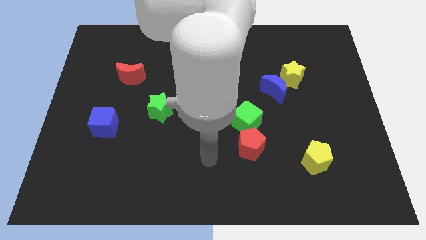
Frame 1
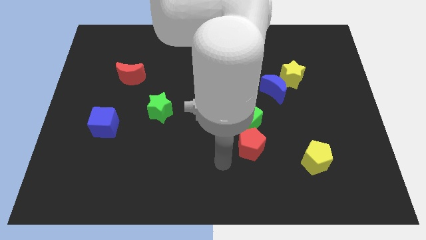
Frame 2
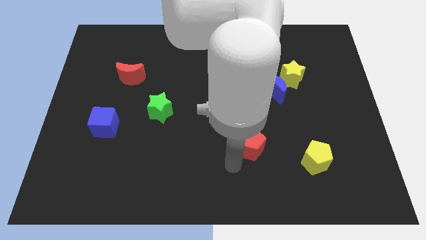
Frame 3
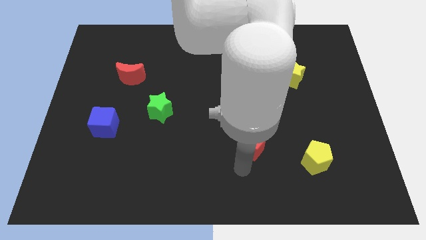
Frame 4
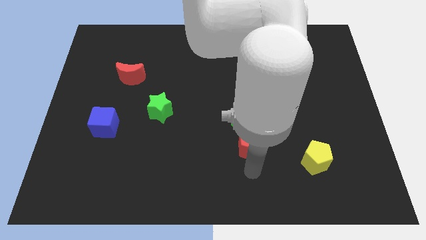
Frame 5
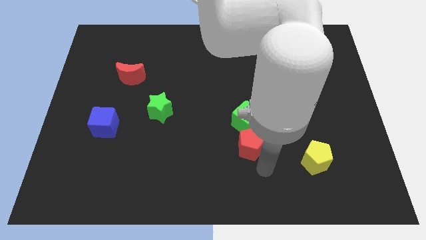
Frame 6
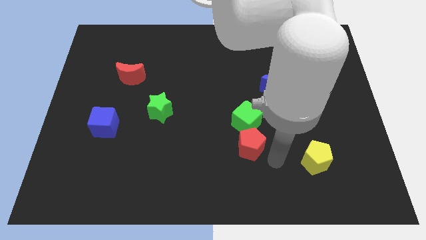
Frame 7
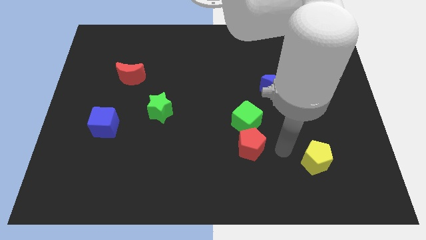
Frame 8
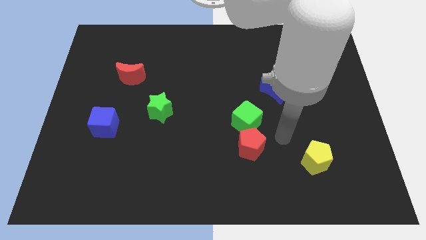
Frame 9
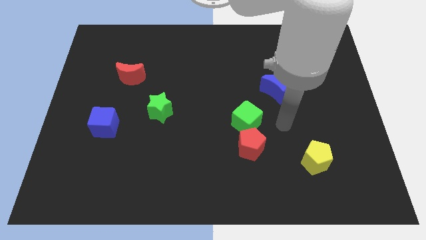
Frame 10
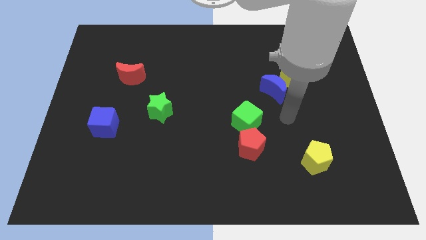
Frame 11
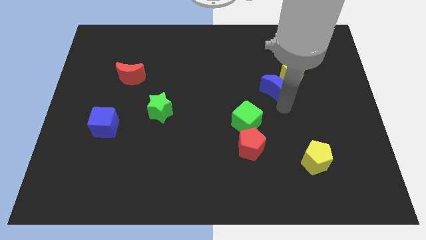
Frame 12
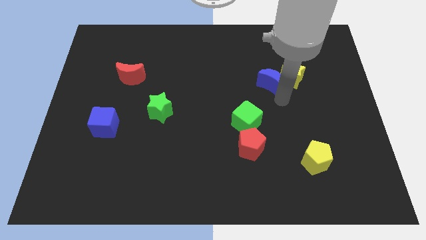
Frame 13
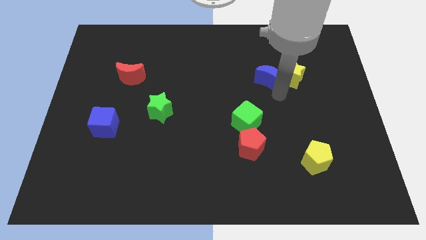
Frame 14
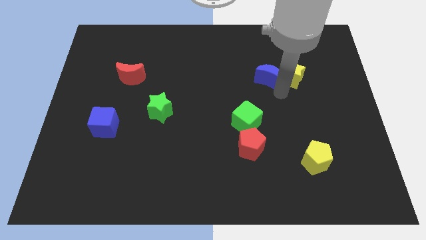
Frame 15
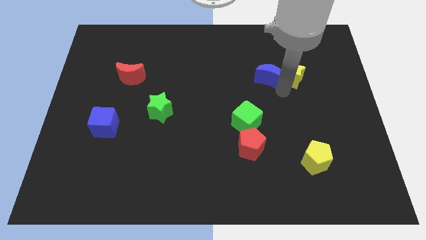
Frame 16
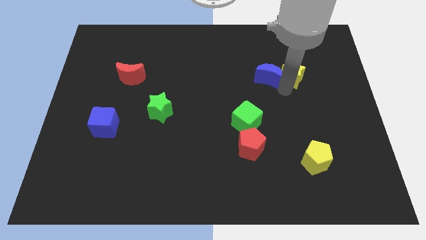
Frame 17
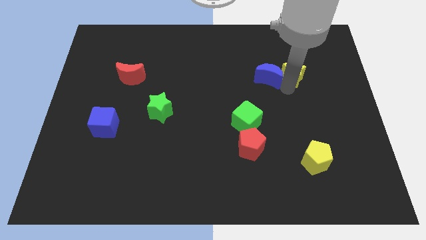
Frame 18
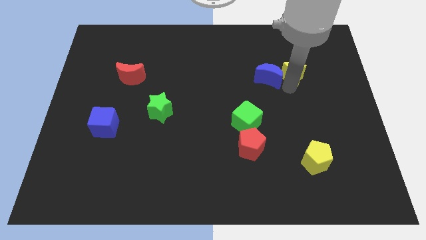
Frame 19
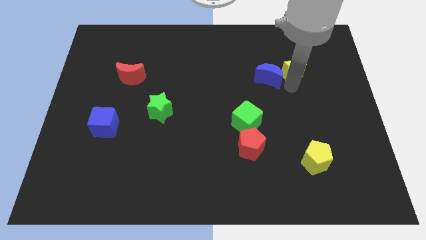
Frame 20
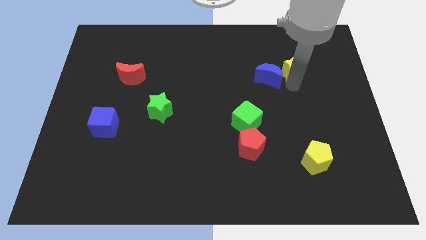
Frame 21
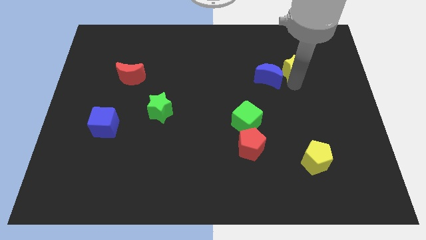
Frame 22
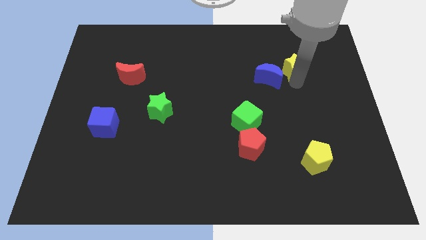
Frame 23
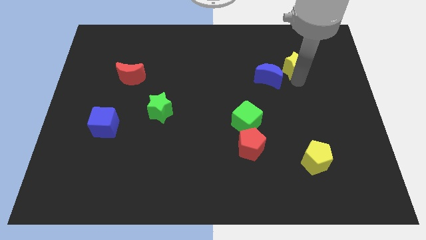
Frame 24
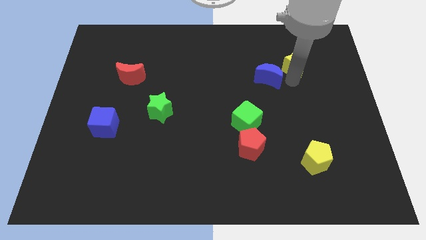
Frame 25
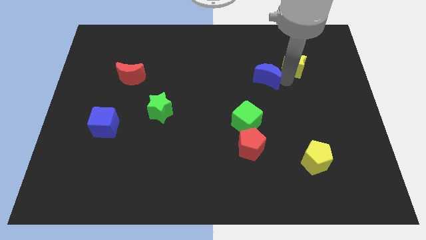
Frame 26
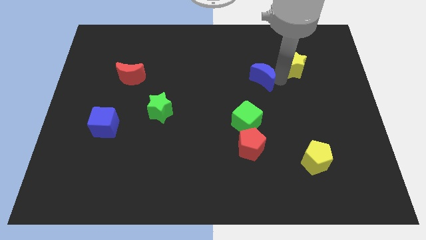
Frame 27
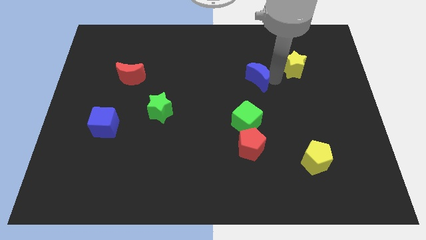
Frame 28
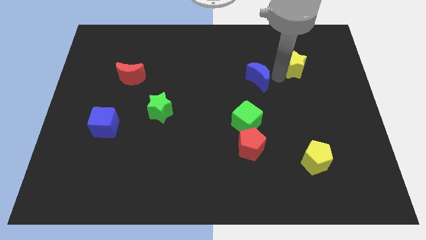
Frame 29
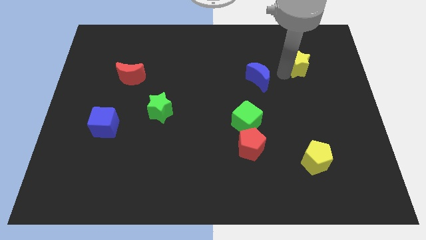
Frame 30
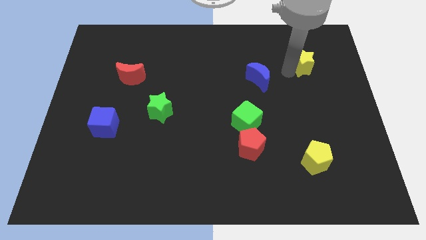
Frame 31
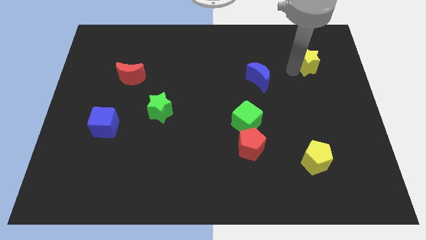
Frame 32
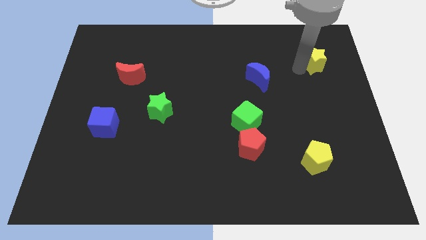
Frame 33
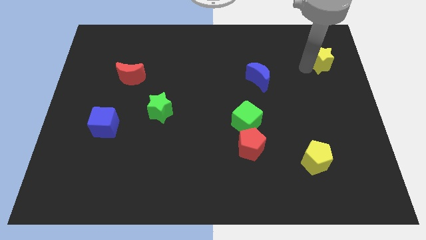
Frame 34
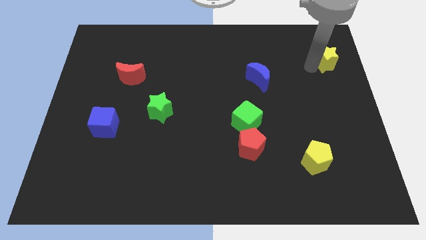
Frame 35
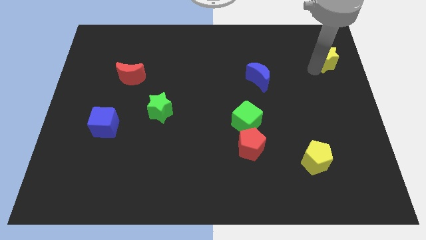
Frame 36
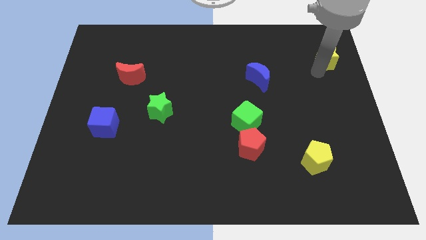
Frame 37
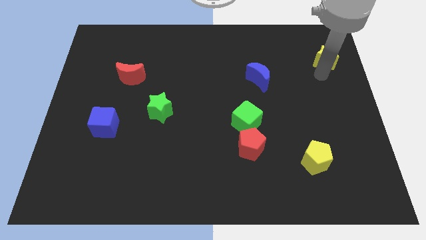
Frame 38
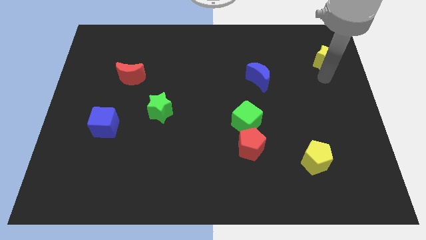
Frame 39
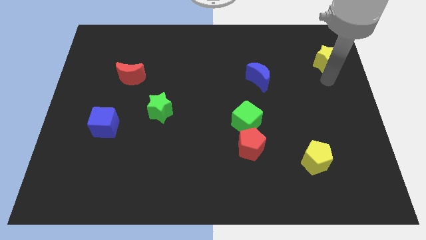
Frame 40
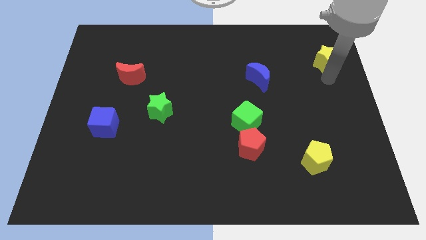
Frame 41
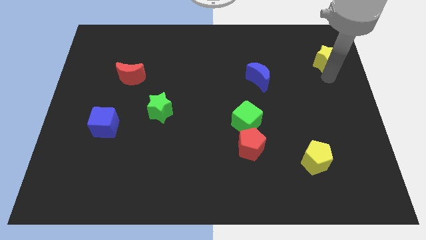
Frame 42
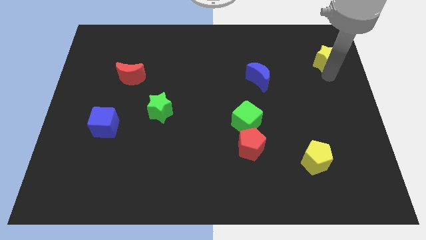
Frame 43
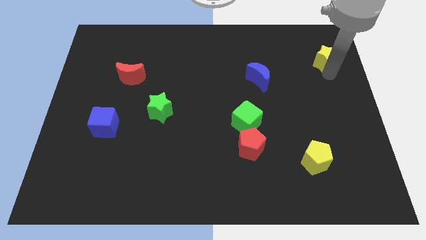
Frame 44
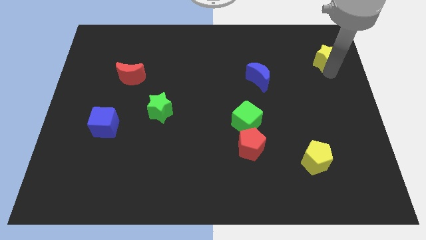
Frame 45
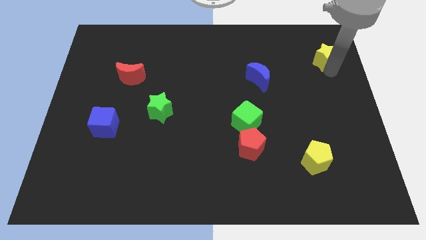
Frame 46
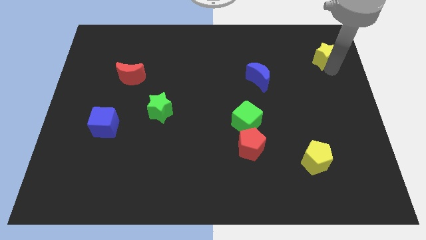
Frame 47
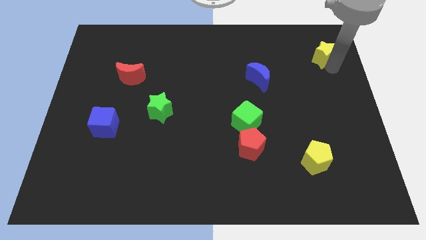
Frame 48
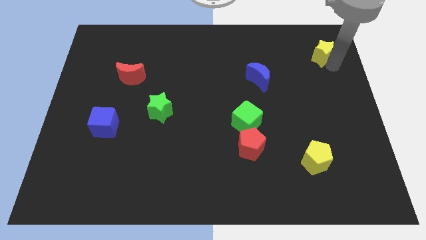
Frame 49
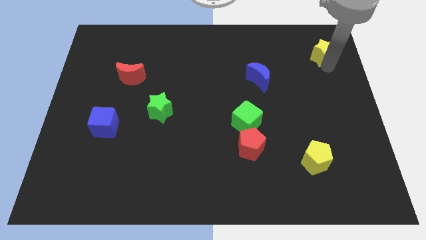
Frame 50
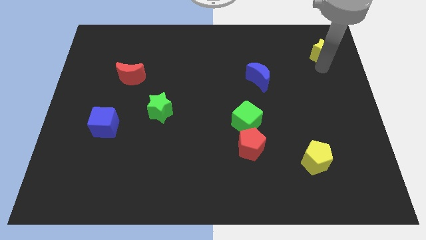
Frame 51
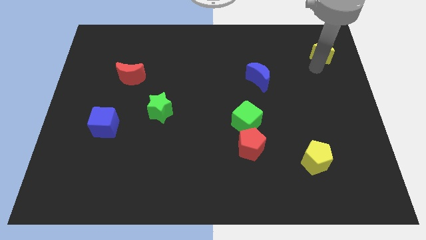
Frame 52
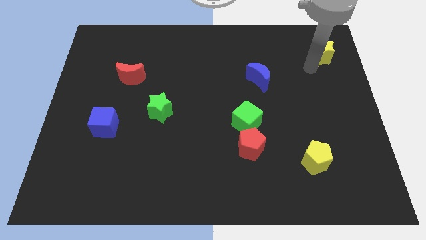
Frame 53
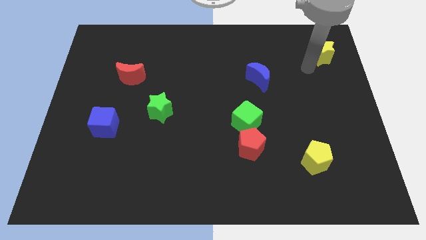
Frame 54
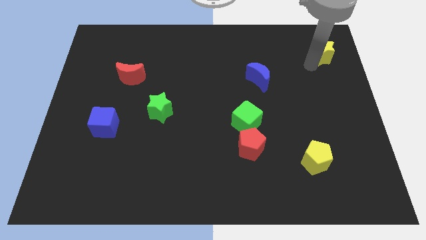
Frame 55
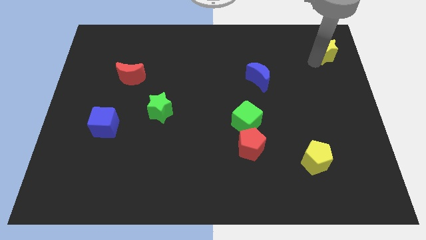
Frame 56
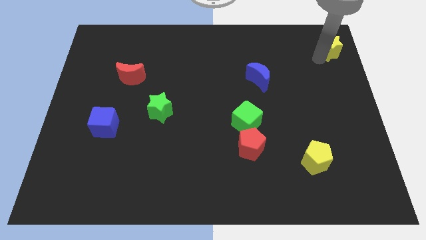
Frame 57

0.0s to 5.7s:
move the yellow star to the top right corner

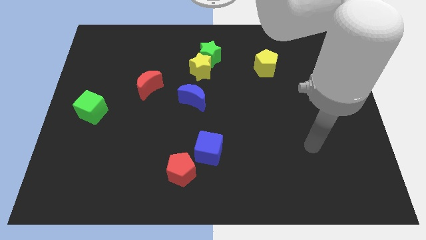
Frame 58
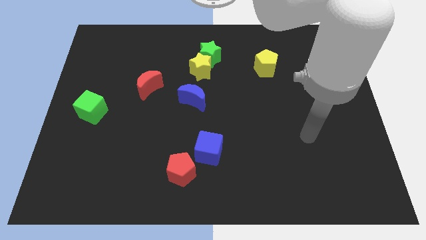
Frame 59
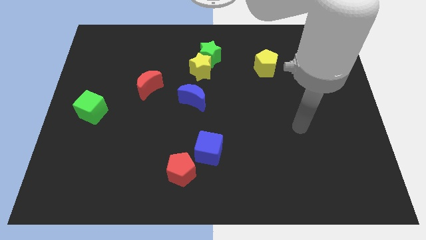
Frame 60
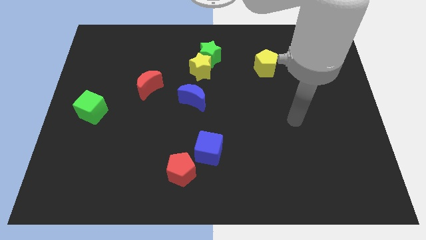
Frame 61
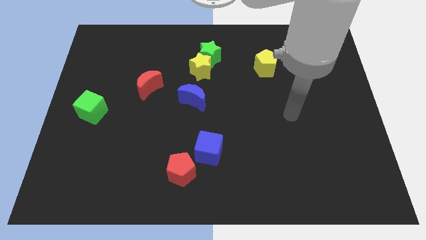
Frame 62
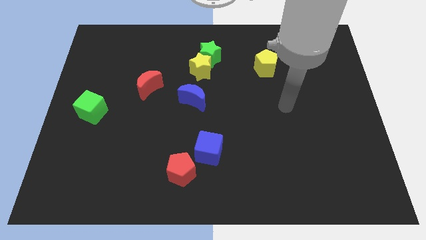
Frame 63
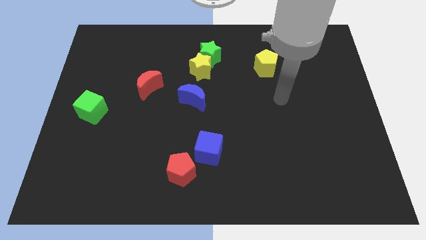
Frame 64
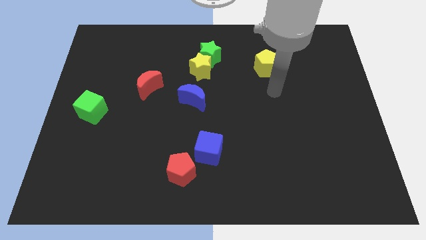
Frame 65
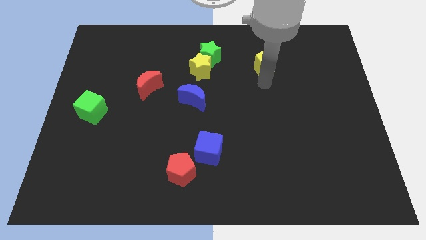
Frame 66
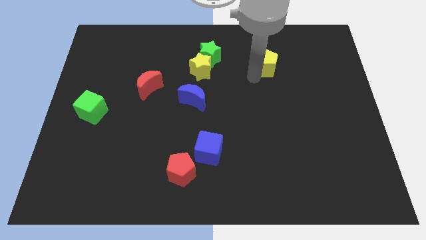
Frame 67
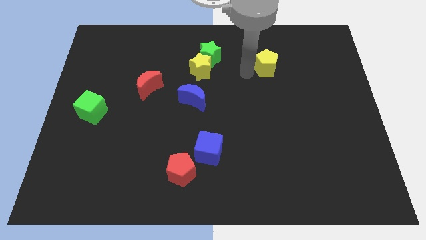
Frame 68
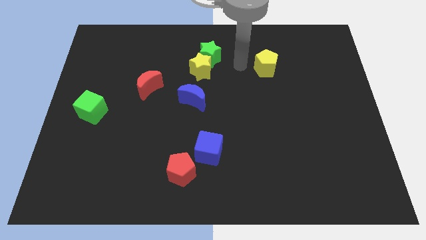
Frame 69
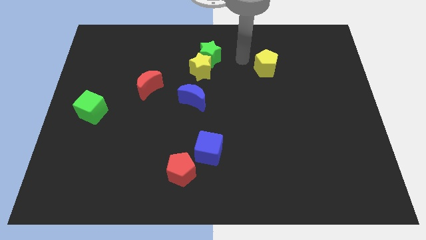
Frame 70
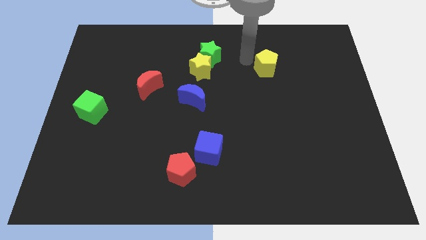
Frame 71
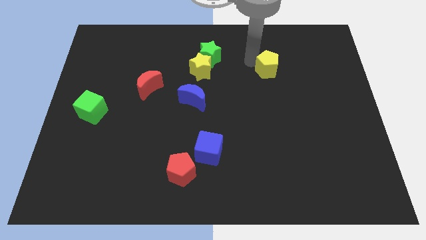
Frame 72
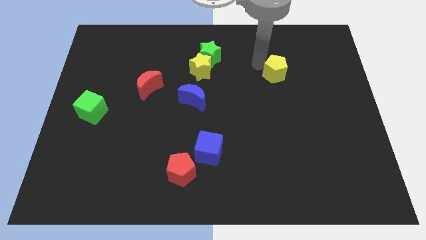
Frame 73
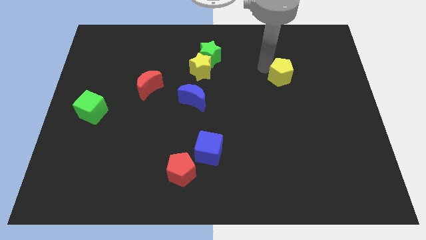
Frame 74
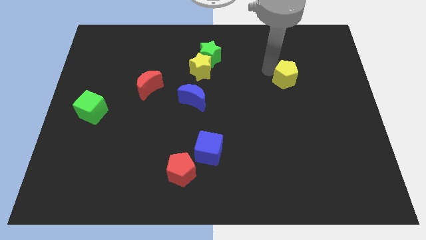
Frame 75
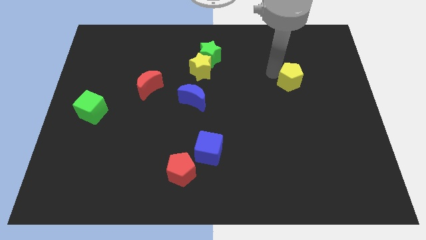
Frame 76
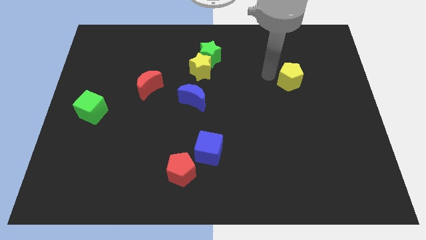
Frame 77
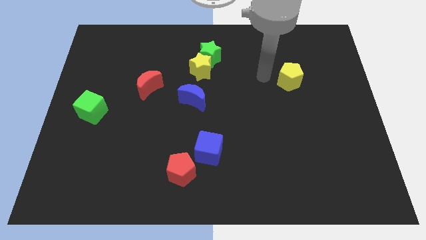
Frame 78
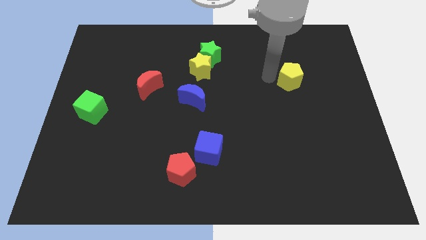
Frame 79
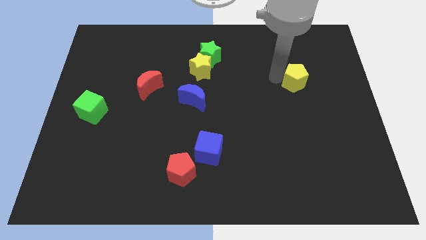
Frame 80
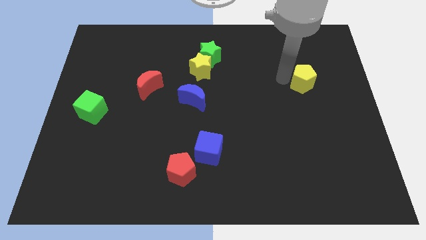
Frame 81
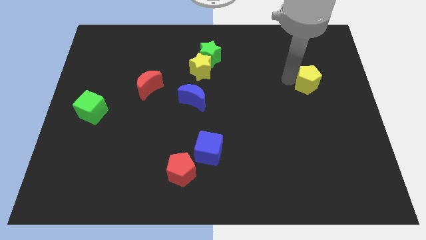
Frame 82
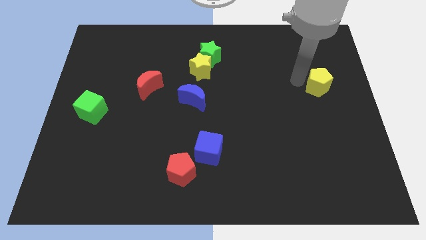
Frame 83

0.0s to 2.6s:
push the yellow pentagon to the right side of the board
